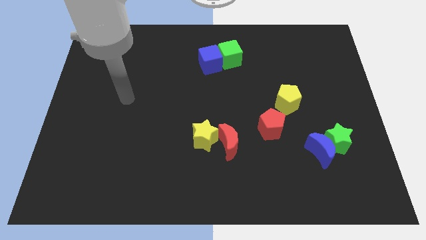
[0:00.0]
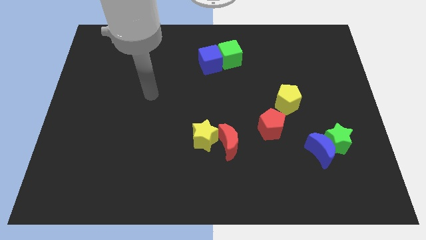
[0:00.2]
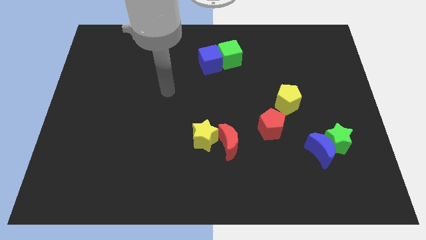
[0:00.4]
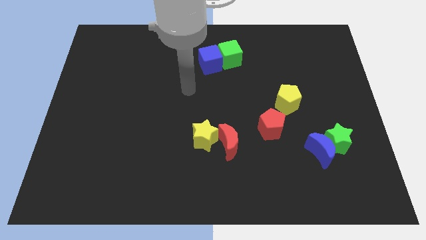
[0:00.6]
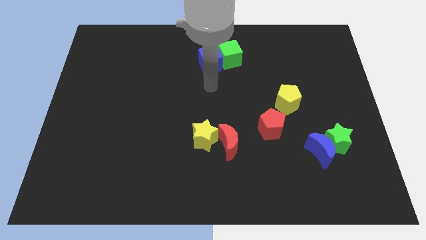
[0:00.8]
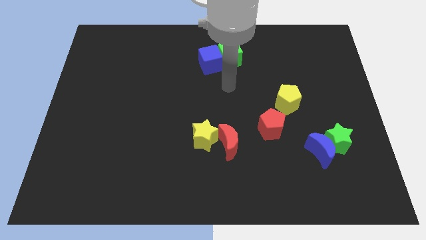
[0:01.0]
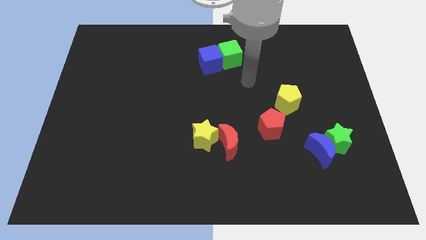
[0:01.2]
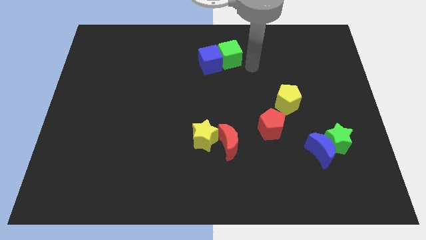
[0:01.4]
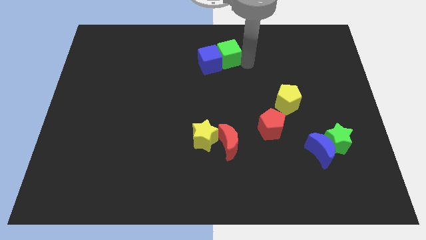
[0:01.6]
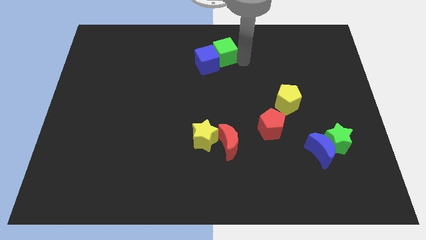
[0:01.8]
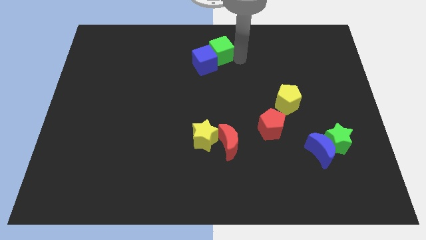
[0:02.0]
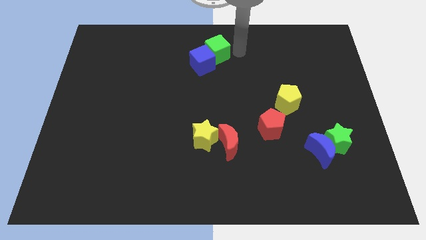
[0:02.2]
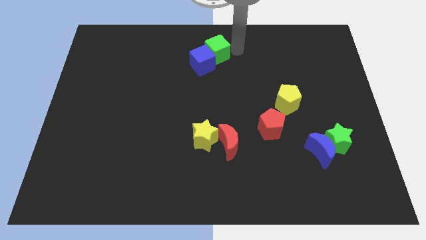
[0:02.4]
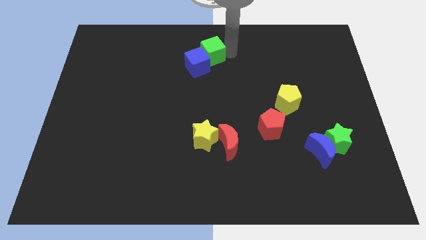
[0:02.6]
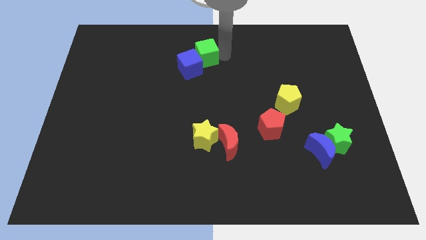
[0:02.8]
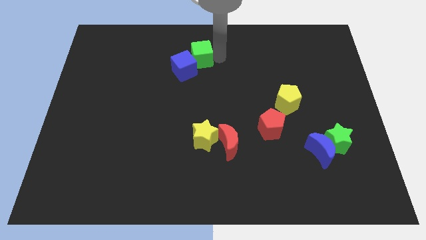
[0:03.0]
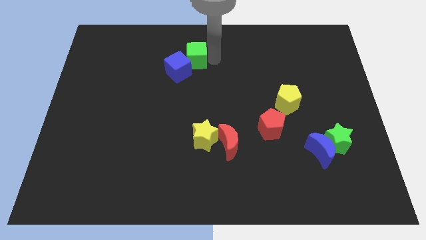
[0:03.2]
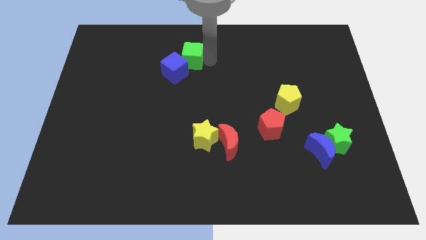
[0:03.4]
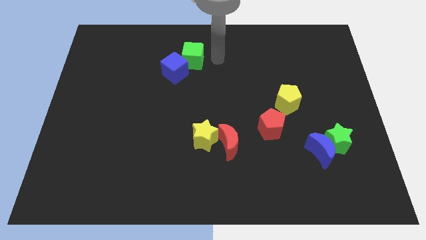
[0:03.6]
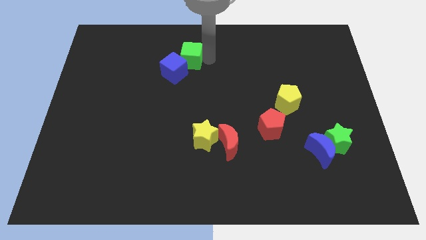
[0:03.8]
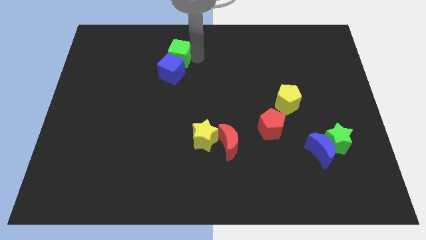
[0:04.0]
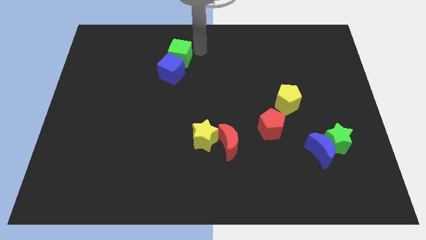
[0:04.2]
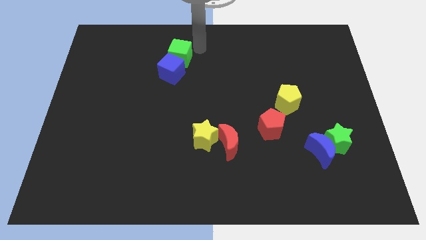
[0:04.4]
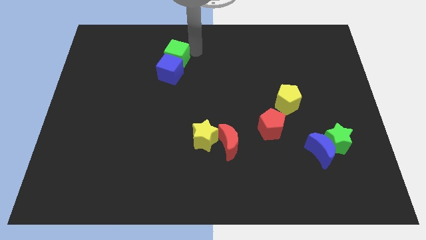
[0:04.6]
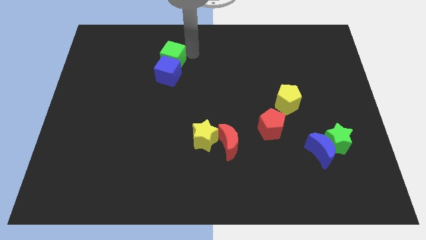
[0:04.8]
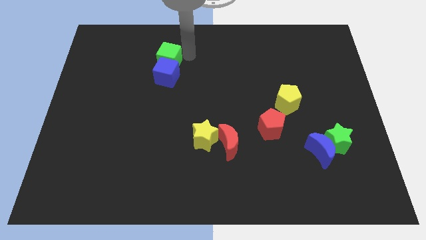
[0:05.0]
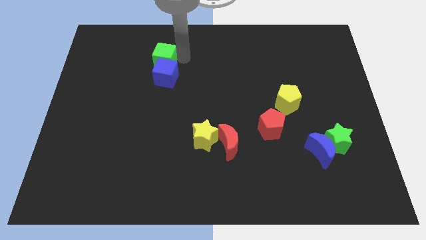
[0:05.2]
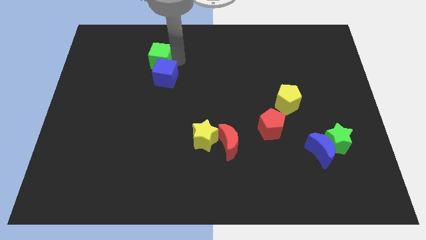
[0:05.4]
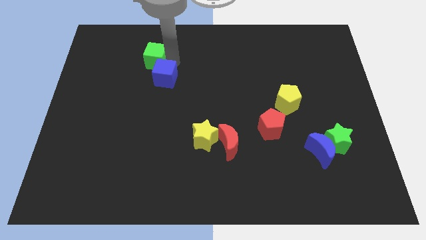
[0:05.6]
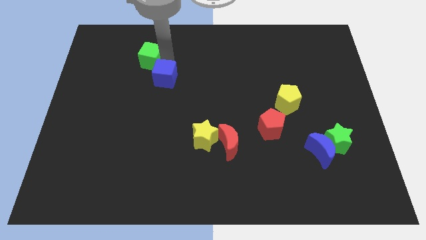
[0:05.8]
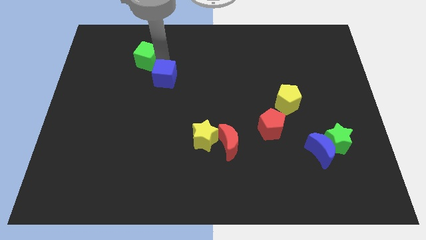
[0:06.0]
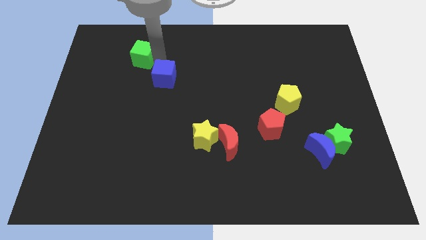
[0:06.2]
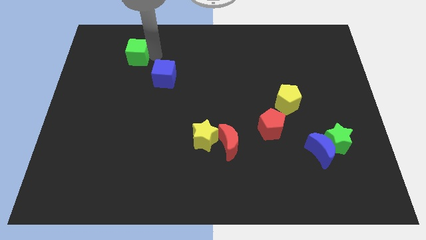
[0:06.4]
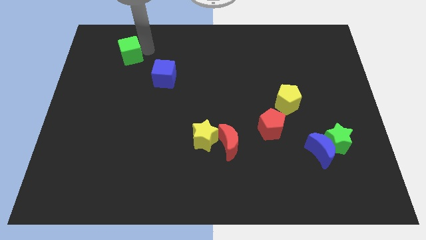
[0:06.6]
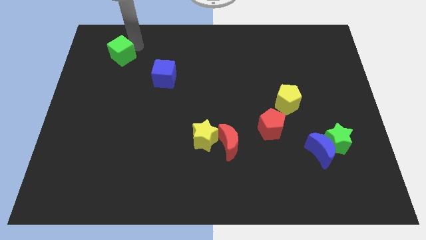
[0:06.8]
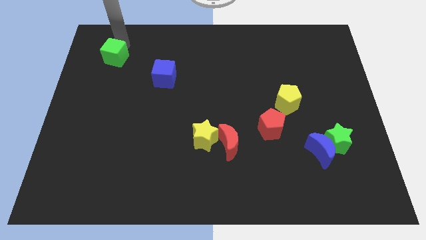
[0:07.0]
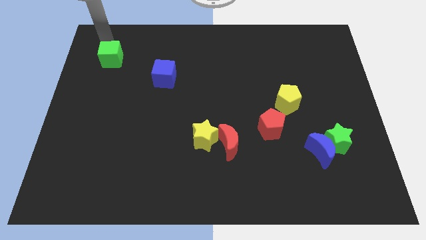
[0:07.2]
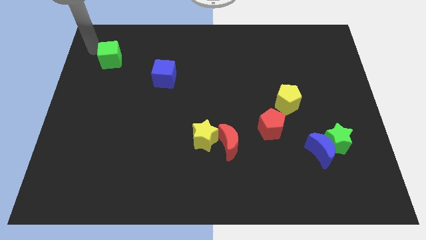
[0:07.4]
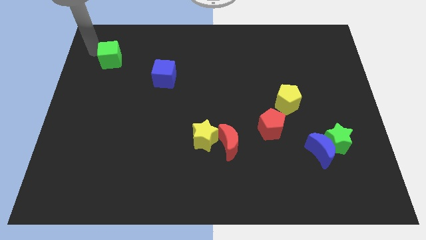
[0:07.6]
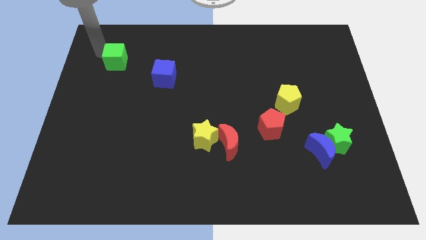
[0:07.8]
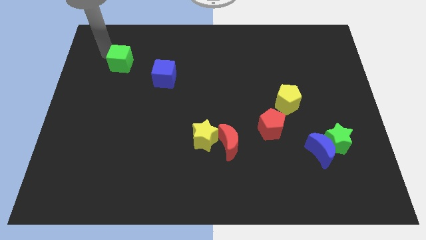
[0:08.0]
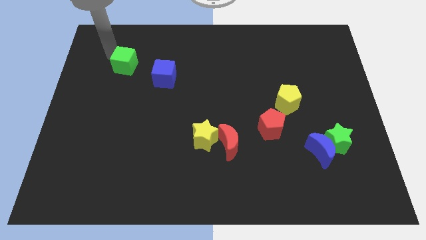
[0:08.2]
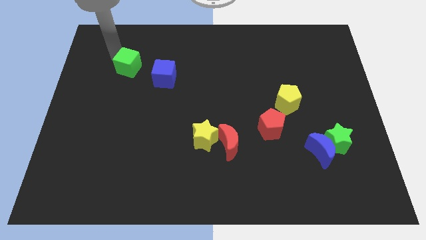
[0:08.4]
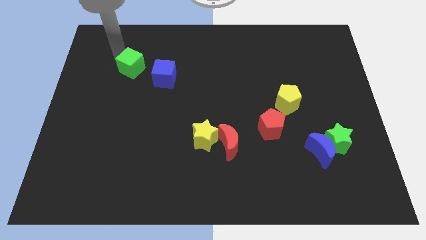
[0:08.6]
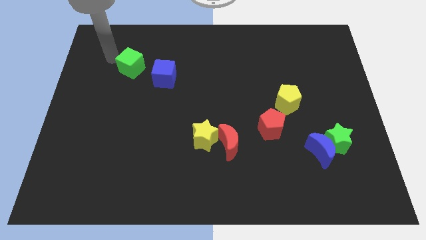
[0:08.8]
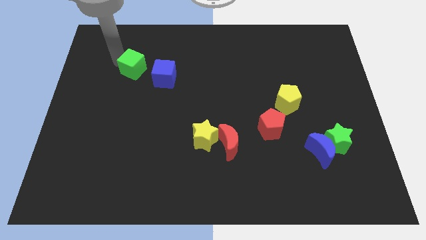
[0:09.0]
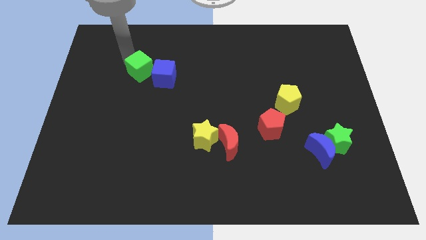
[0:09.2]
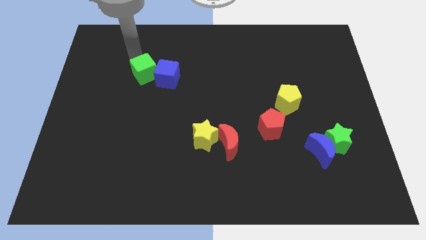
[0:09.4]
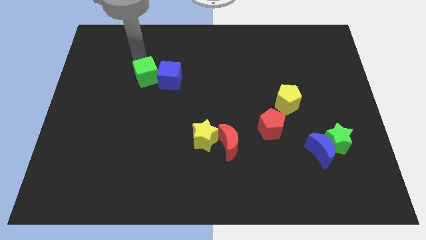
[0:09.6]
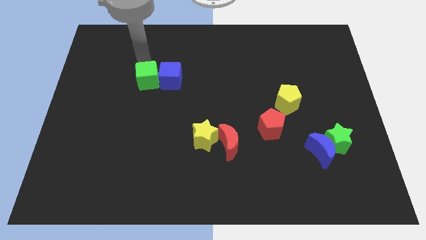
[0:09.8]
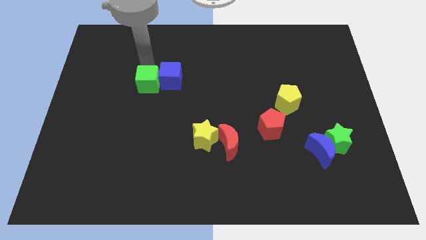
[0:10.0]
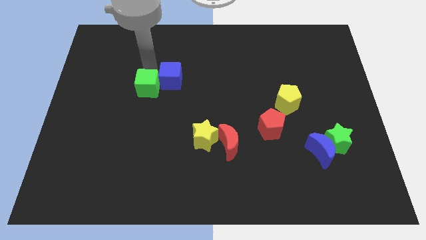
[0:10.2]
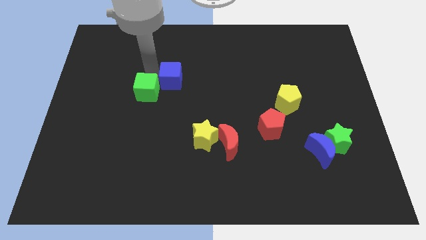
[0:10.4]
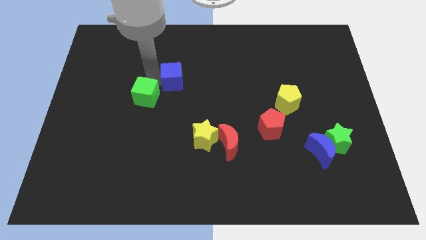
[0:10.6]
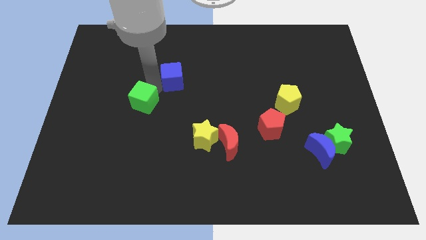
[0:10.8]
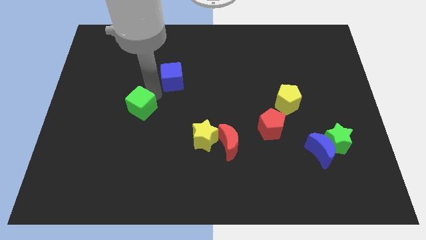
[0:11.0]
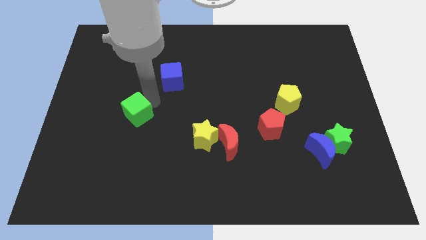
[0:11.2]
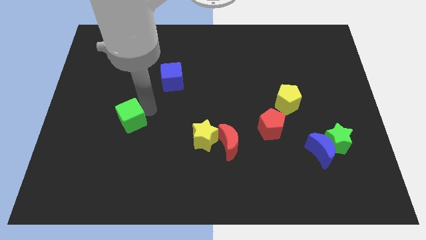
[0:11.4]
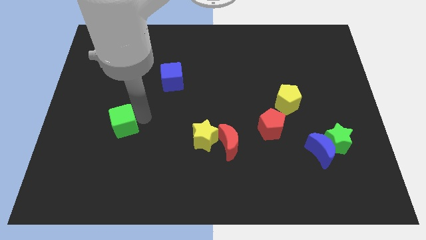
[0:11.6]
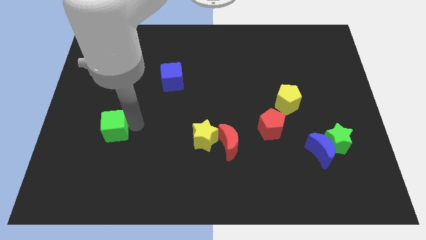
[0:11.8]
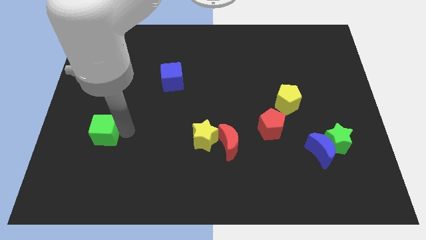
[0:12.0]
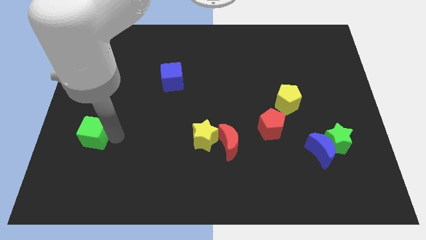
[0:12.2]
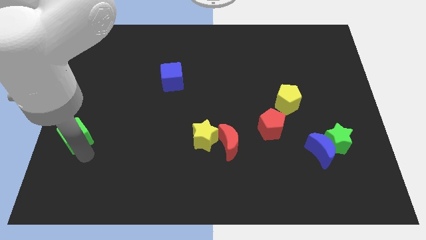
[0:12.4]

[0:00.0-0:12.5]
move the green cube to the left side of the board
